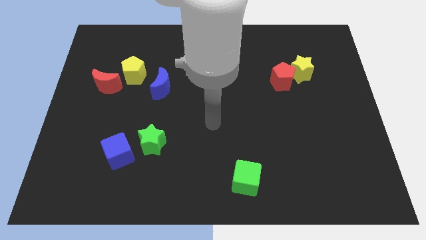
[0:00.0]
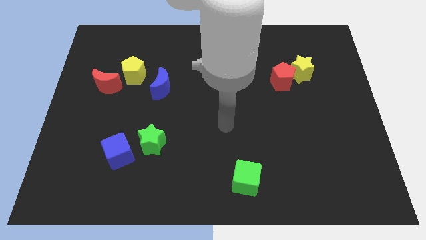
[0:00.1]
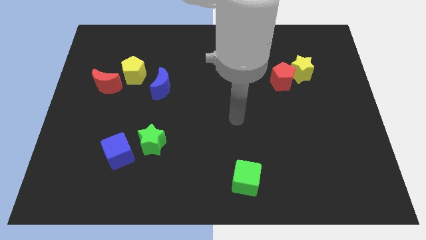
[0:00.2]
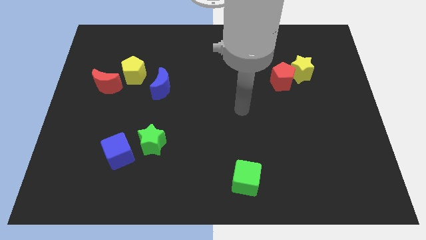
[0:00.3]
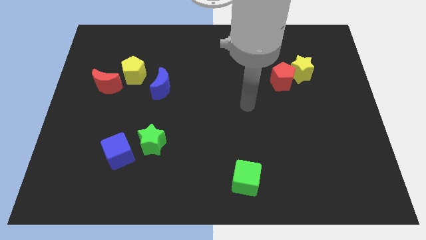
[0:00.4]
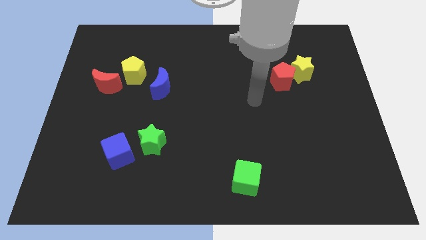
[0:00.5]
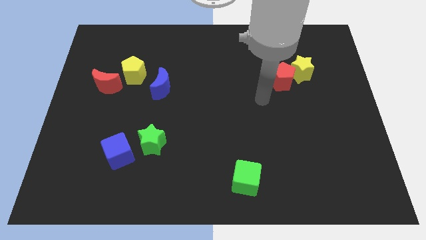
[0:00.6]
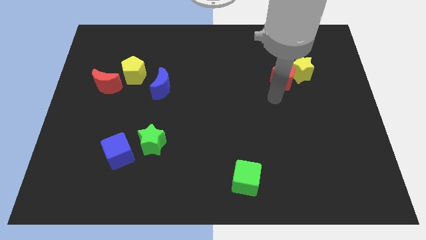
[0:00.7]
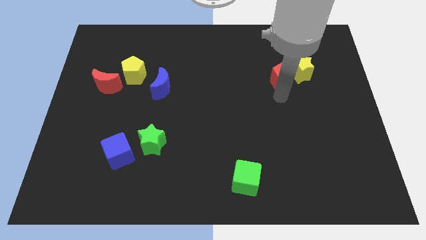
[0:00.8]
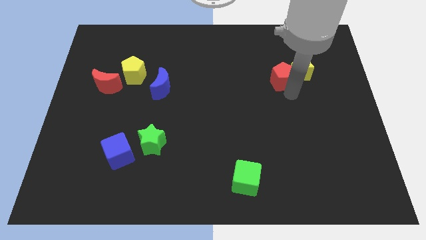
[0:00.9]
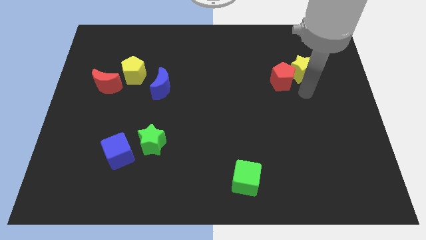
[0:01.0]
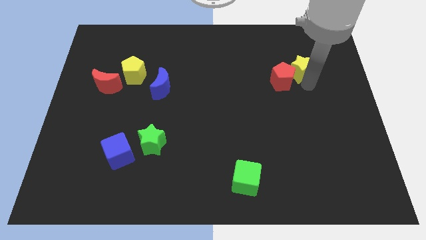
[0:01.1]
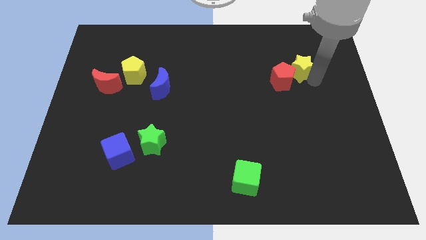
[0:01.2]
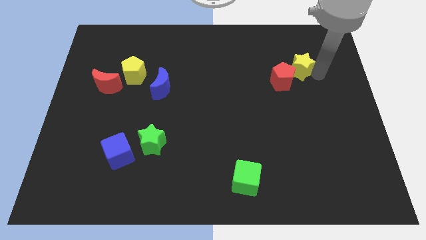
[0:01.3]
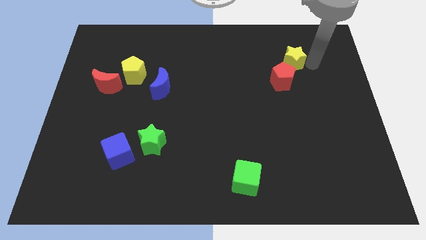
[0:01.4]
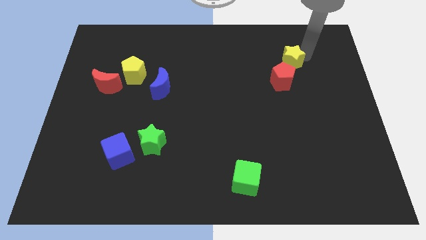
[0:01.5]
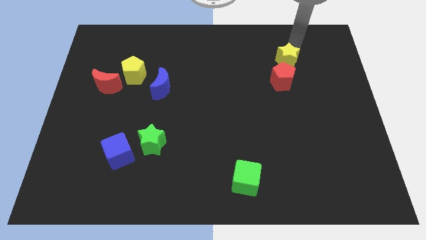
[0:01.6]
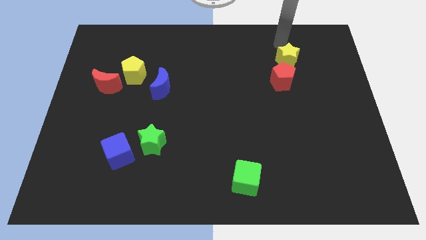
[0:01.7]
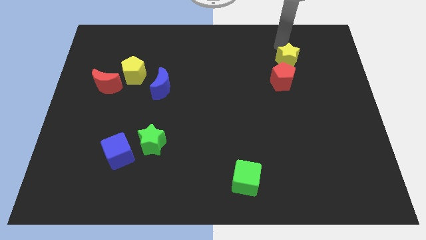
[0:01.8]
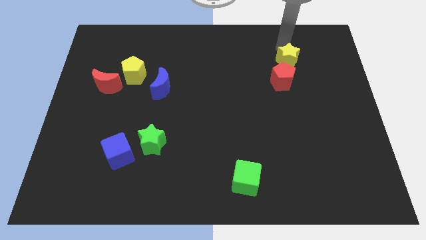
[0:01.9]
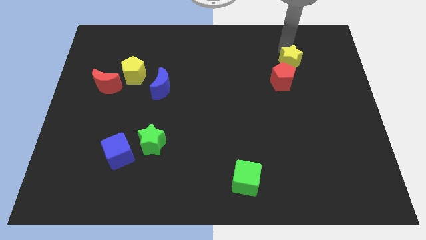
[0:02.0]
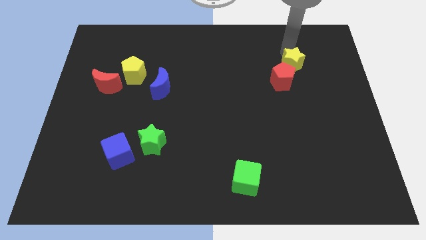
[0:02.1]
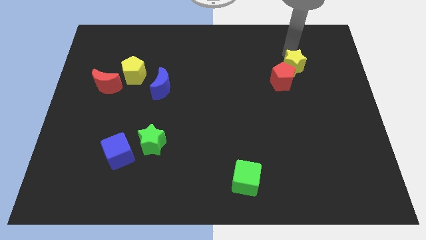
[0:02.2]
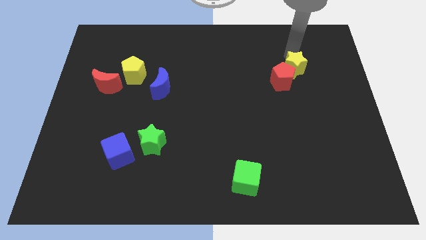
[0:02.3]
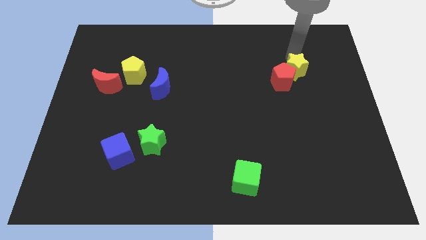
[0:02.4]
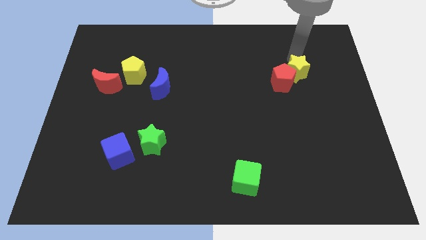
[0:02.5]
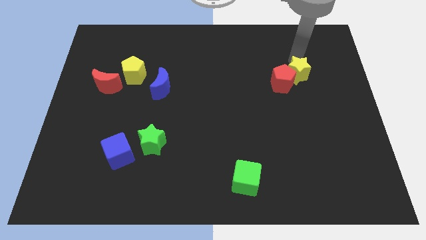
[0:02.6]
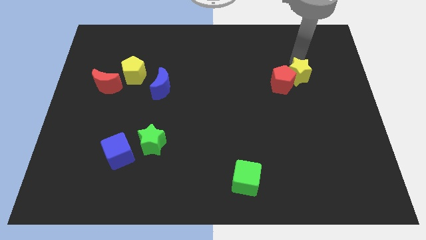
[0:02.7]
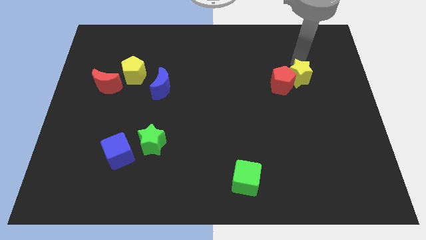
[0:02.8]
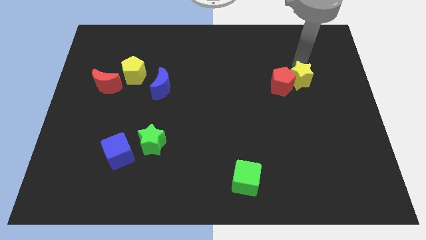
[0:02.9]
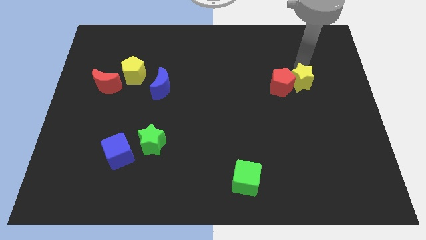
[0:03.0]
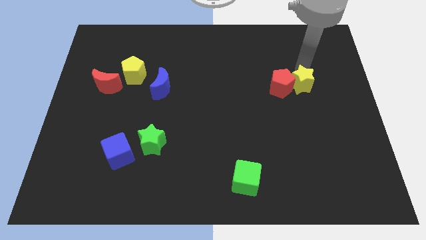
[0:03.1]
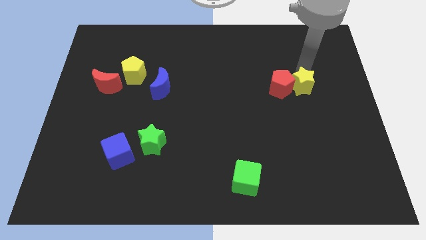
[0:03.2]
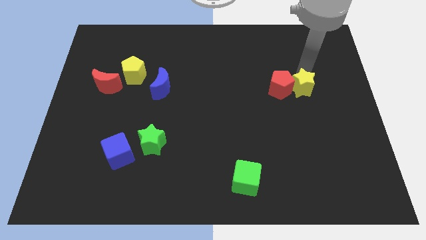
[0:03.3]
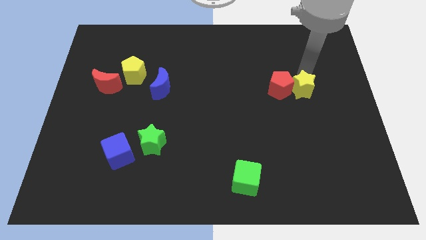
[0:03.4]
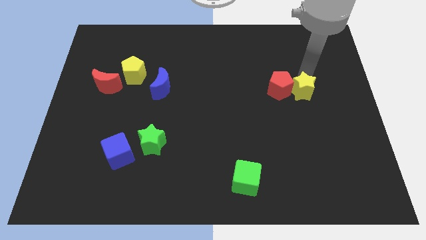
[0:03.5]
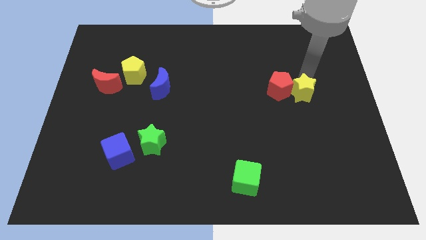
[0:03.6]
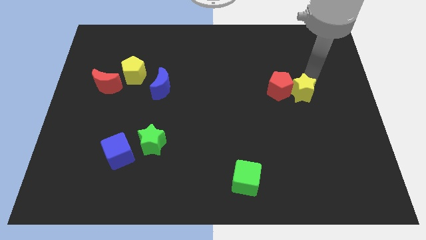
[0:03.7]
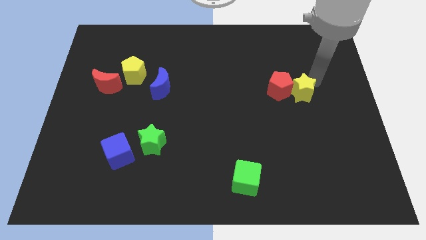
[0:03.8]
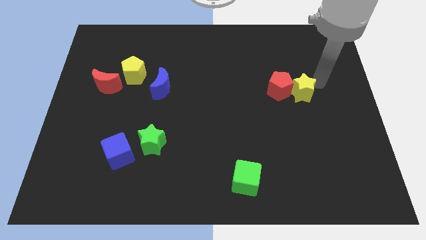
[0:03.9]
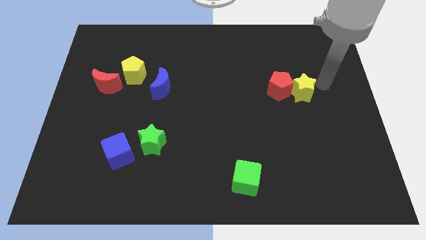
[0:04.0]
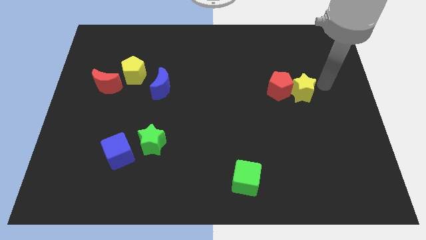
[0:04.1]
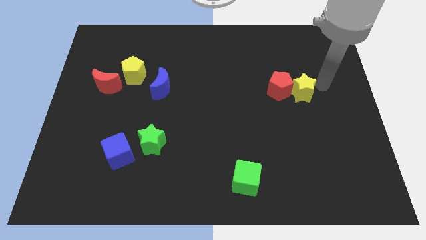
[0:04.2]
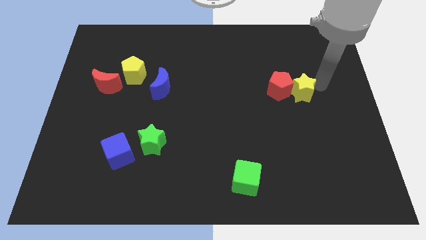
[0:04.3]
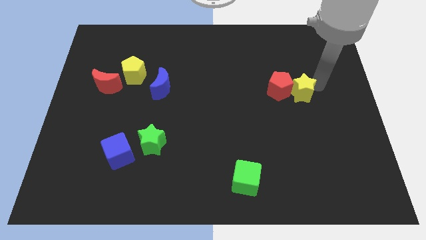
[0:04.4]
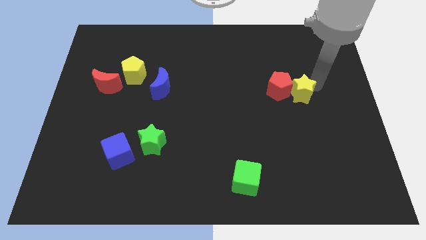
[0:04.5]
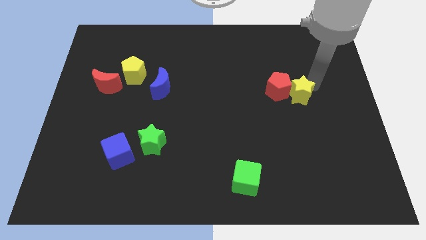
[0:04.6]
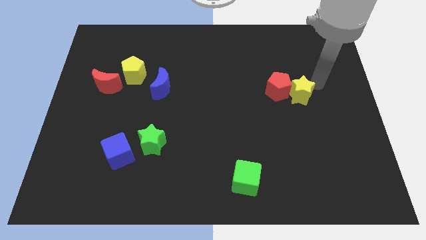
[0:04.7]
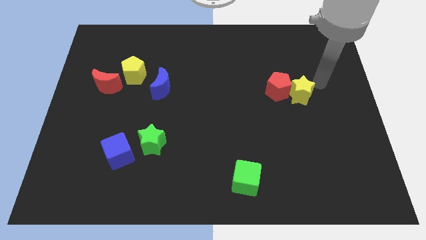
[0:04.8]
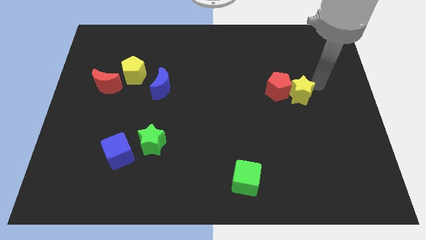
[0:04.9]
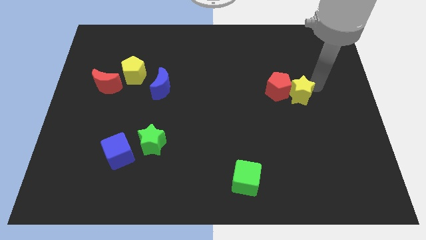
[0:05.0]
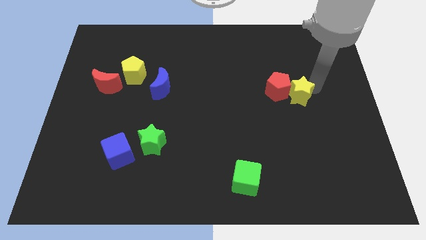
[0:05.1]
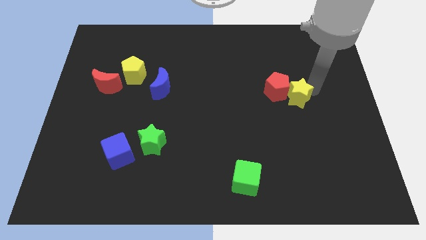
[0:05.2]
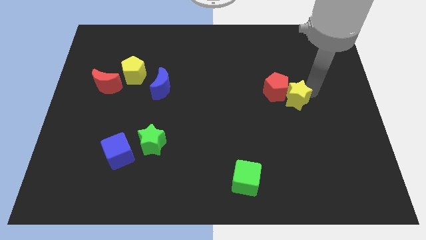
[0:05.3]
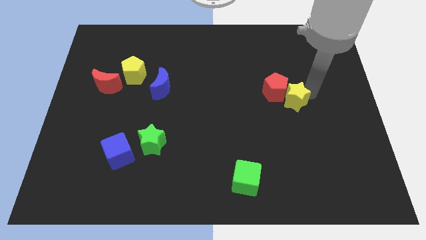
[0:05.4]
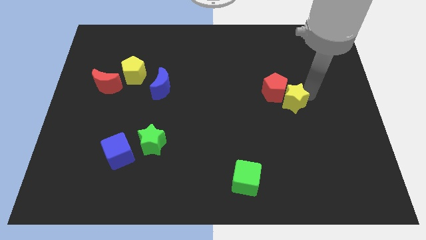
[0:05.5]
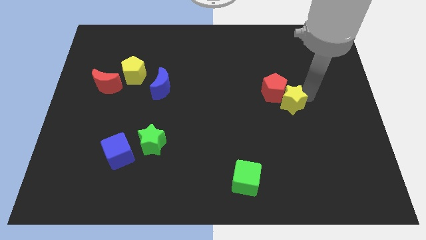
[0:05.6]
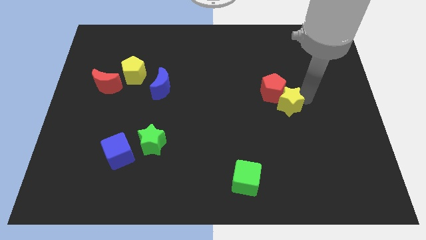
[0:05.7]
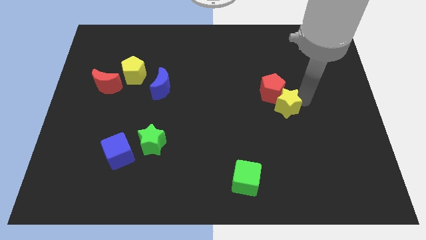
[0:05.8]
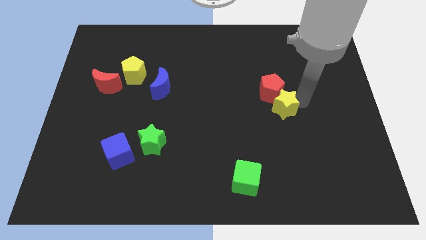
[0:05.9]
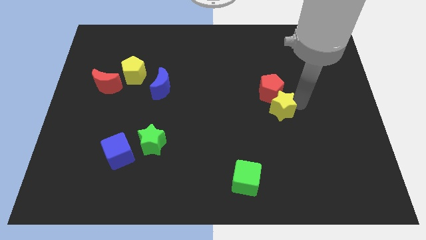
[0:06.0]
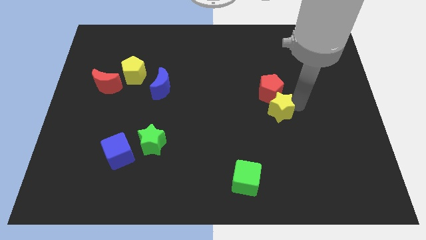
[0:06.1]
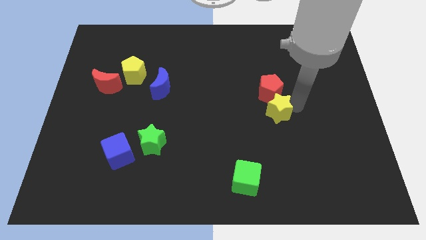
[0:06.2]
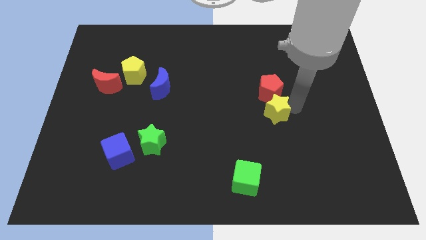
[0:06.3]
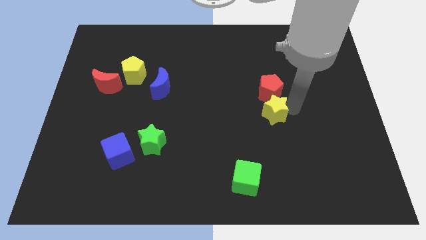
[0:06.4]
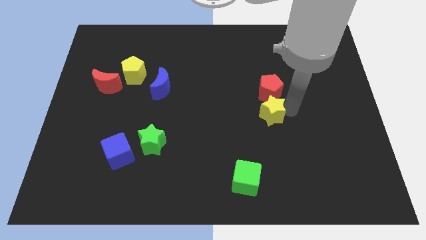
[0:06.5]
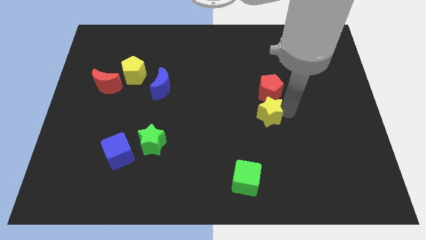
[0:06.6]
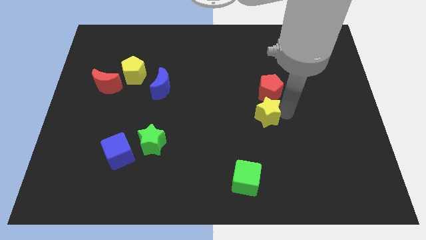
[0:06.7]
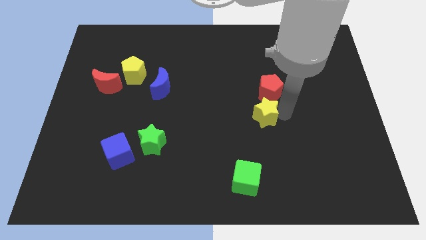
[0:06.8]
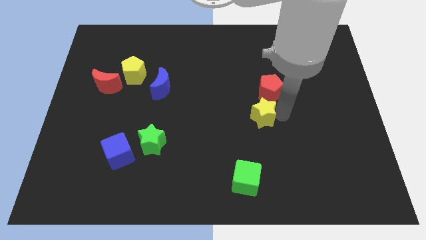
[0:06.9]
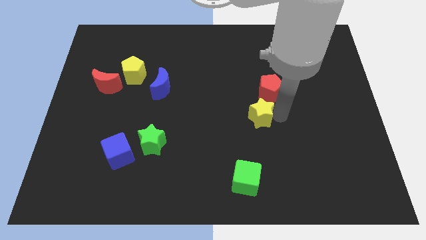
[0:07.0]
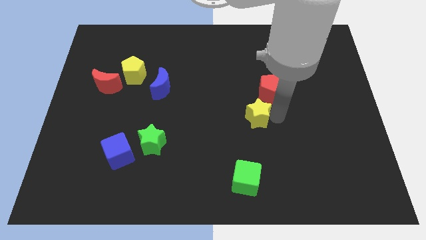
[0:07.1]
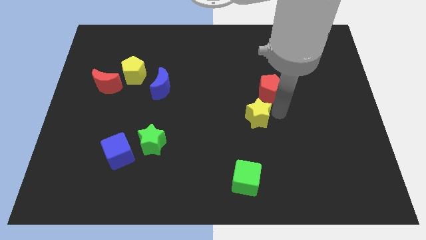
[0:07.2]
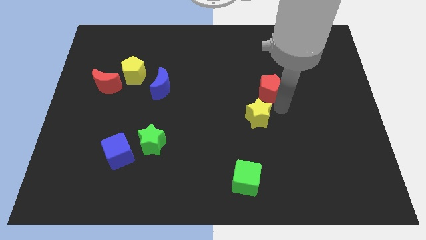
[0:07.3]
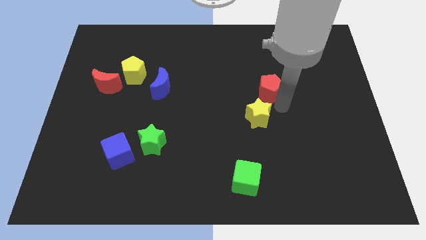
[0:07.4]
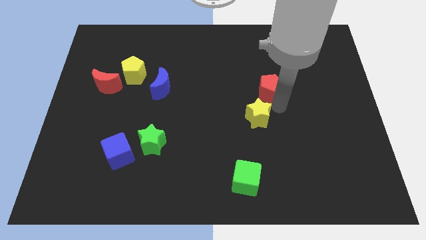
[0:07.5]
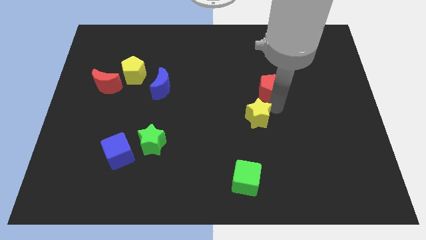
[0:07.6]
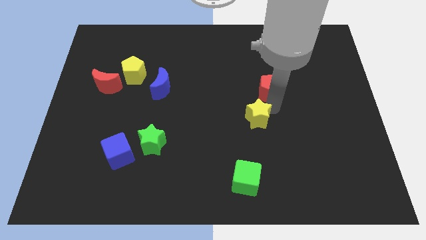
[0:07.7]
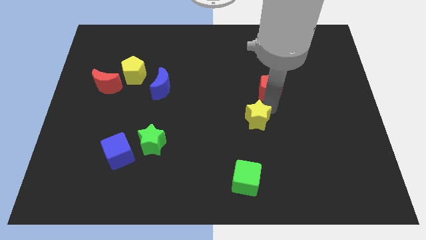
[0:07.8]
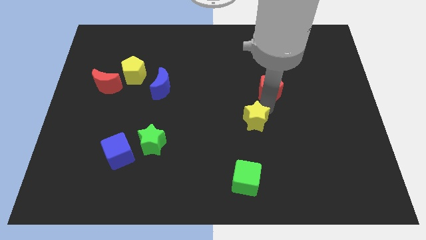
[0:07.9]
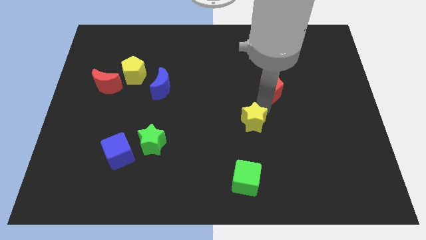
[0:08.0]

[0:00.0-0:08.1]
push the yellow star down and then left

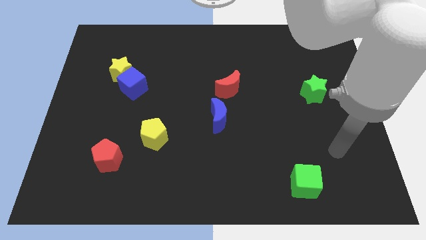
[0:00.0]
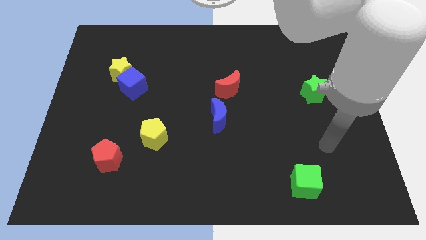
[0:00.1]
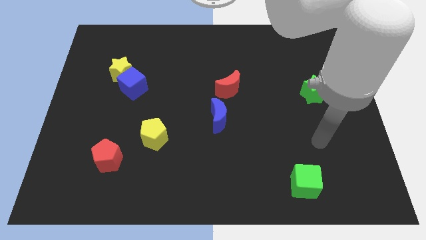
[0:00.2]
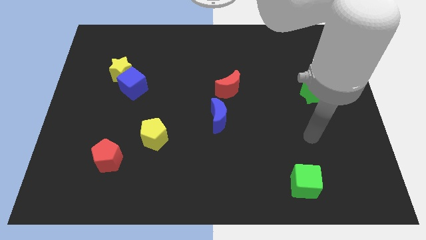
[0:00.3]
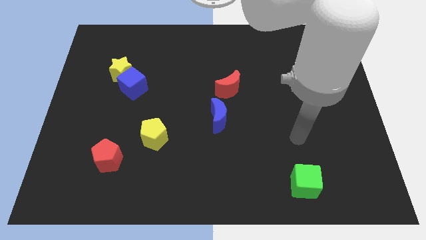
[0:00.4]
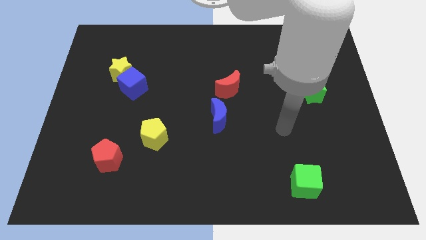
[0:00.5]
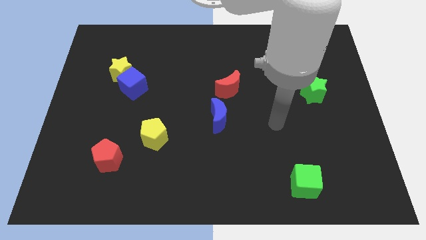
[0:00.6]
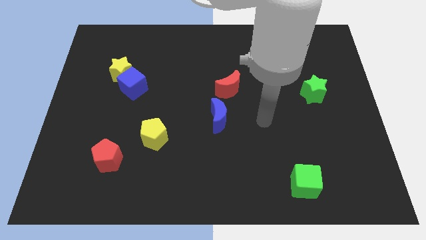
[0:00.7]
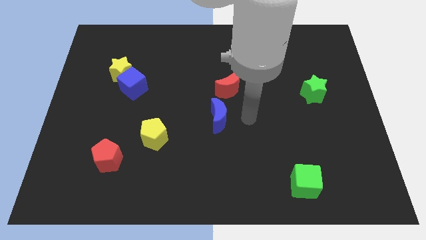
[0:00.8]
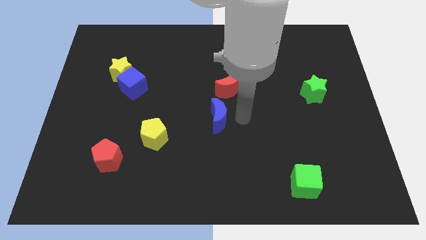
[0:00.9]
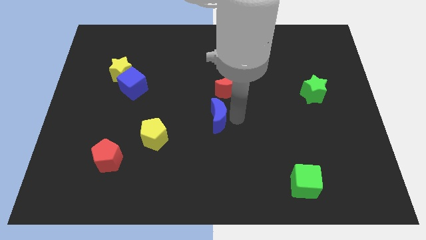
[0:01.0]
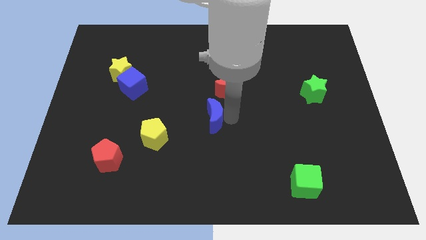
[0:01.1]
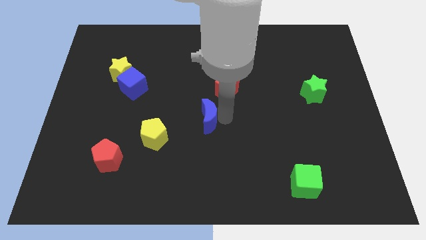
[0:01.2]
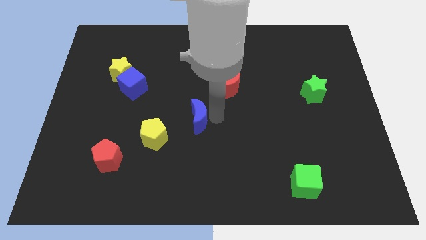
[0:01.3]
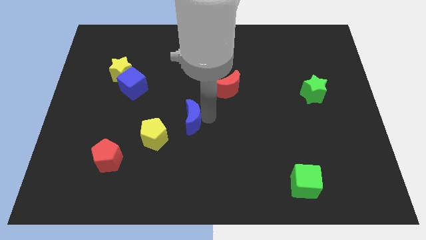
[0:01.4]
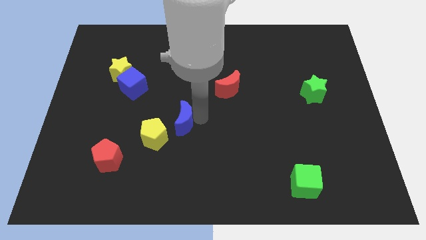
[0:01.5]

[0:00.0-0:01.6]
slightly push the blue moon left
